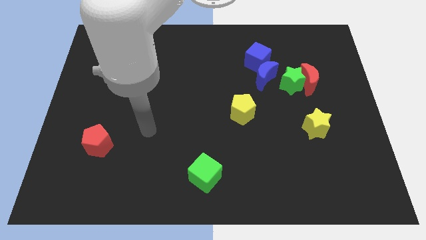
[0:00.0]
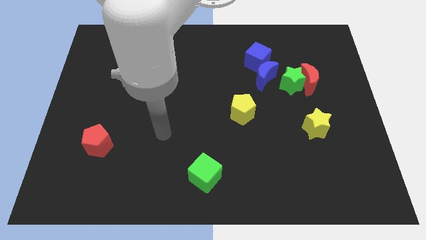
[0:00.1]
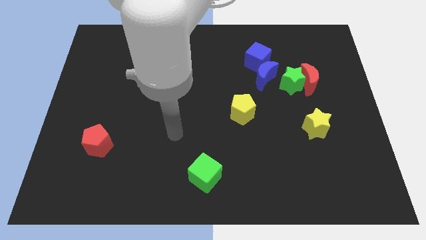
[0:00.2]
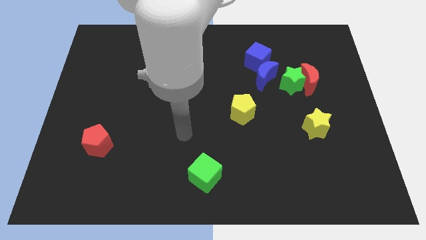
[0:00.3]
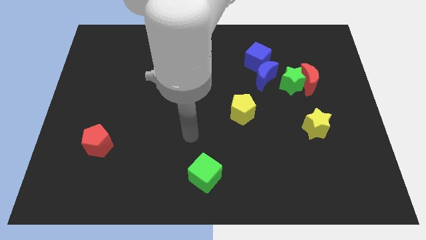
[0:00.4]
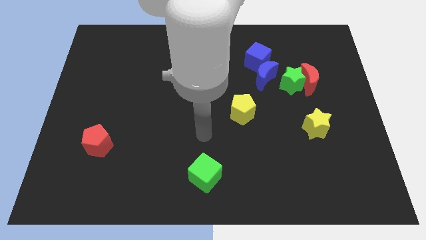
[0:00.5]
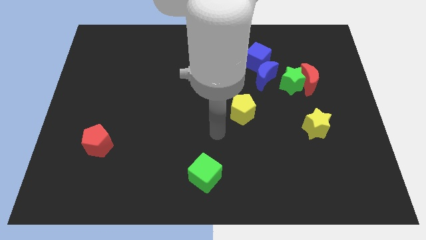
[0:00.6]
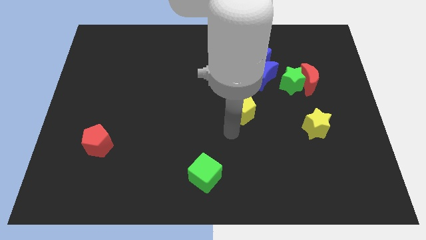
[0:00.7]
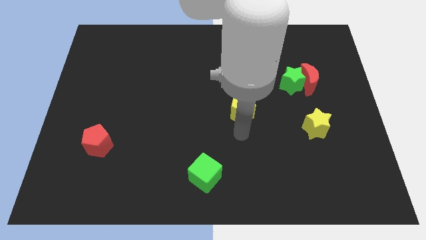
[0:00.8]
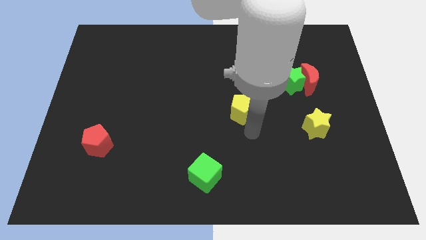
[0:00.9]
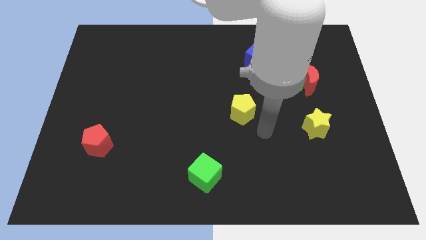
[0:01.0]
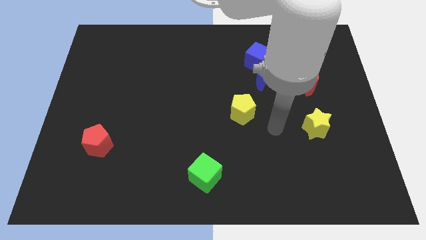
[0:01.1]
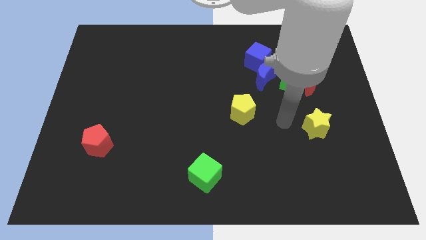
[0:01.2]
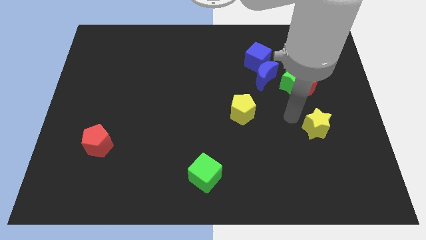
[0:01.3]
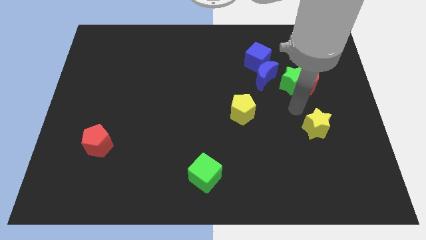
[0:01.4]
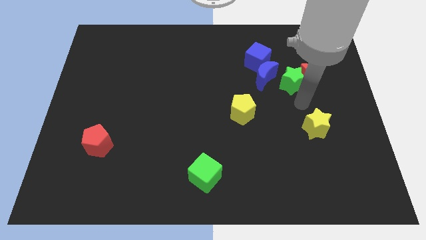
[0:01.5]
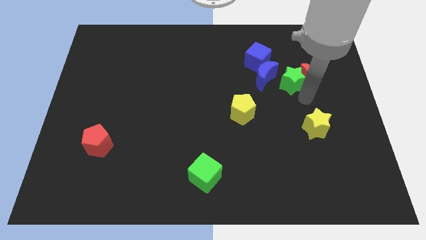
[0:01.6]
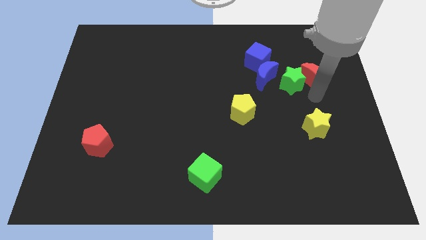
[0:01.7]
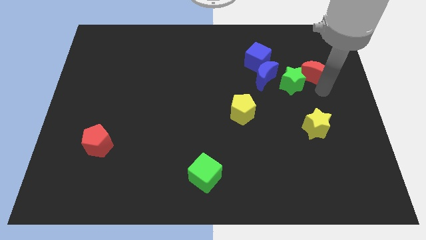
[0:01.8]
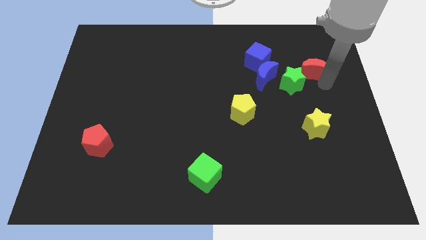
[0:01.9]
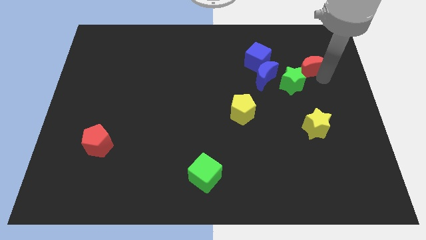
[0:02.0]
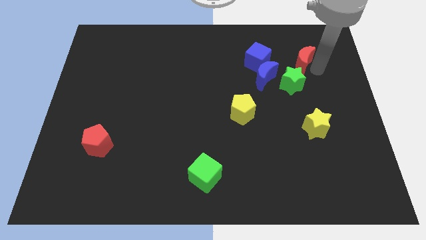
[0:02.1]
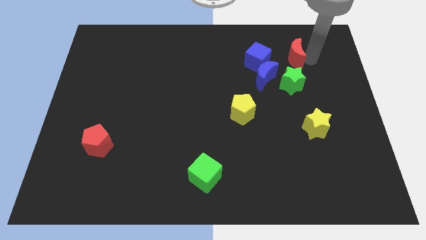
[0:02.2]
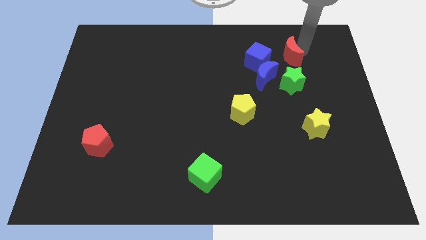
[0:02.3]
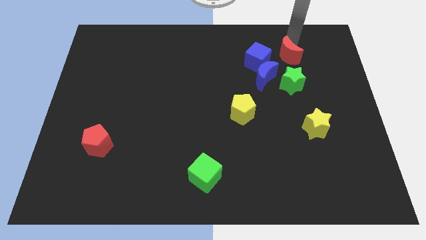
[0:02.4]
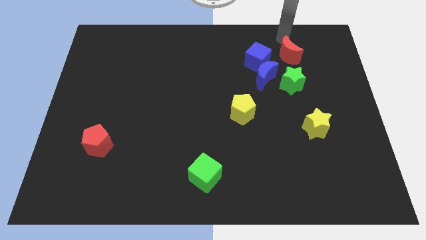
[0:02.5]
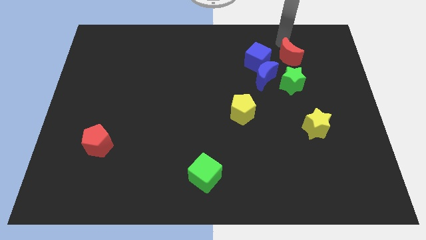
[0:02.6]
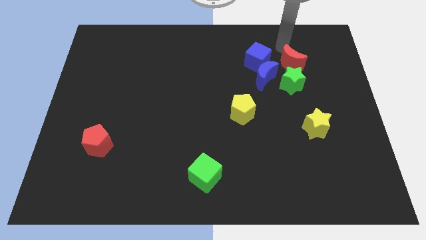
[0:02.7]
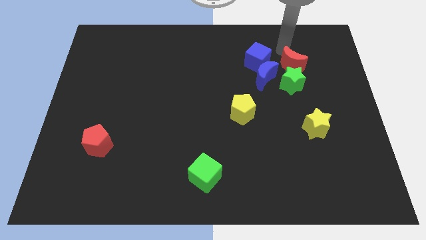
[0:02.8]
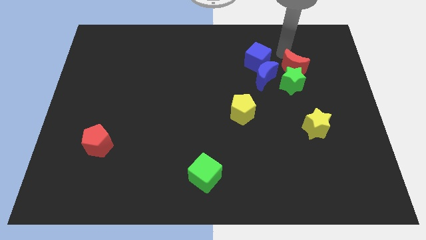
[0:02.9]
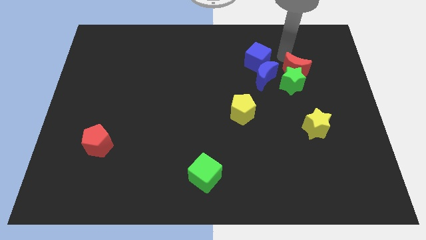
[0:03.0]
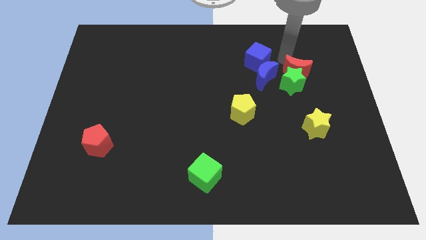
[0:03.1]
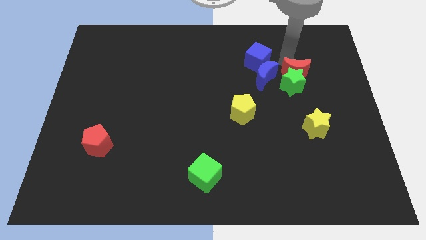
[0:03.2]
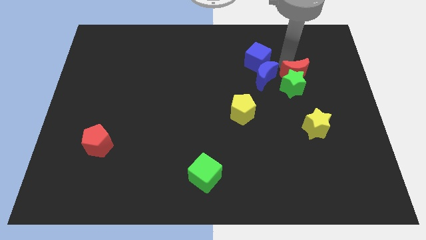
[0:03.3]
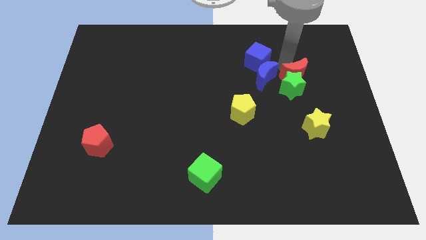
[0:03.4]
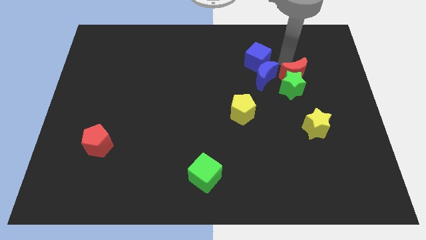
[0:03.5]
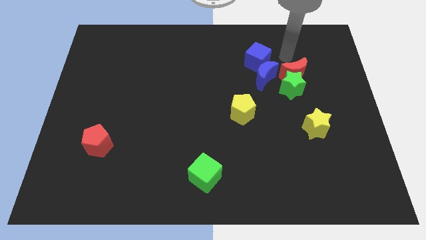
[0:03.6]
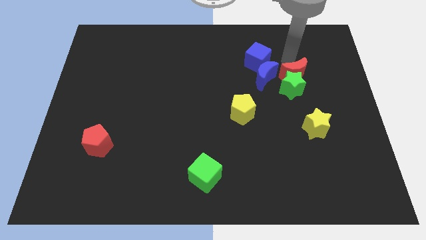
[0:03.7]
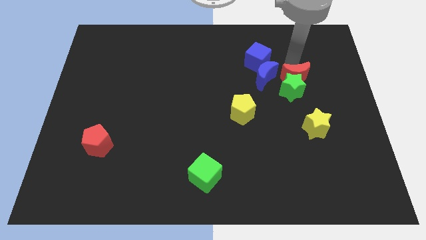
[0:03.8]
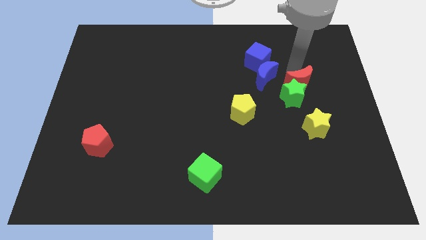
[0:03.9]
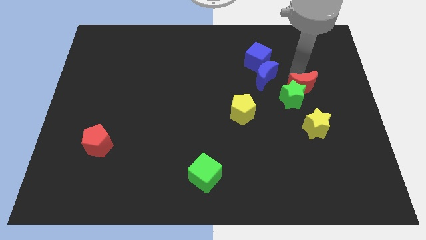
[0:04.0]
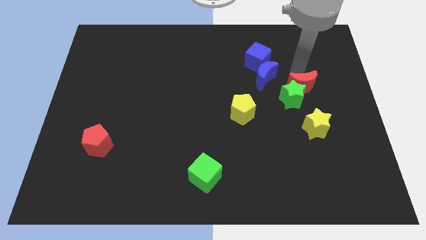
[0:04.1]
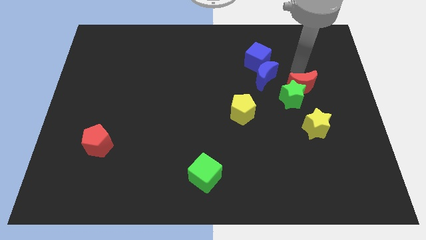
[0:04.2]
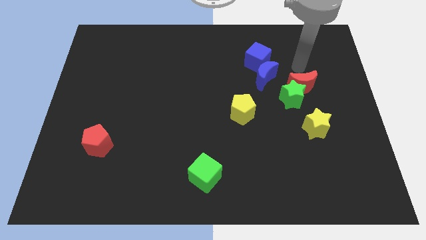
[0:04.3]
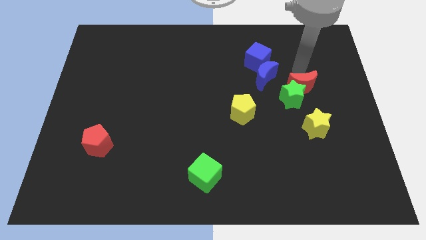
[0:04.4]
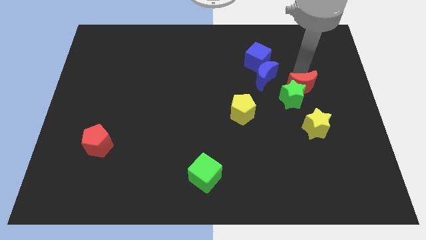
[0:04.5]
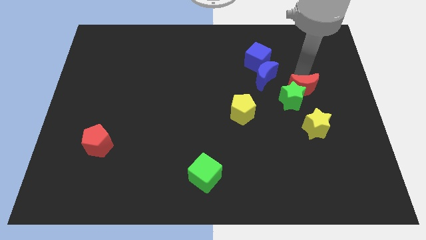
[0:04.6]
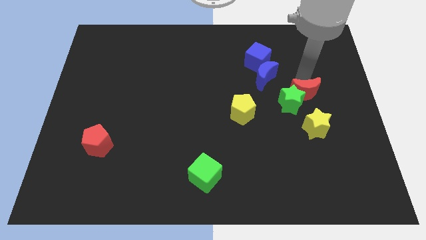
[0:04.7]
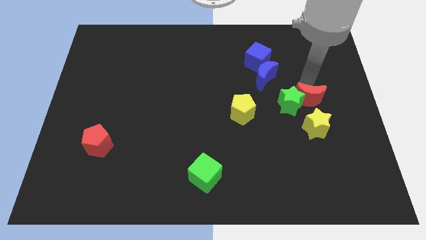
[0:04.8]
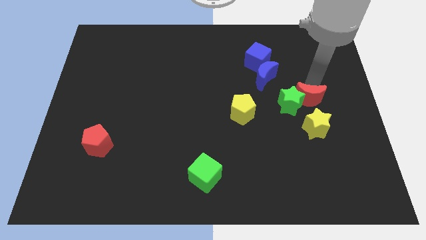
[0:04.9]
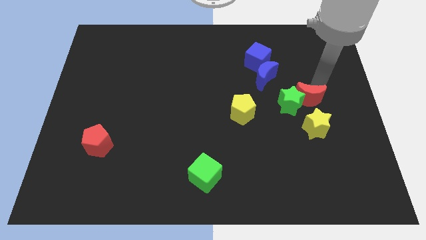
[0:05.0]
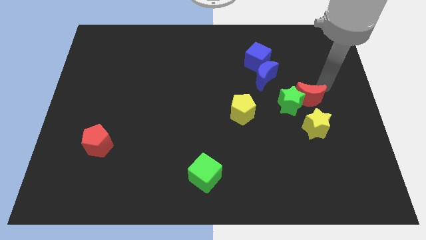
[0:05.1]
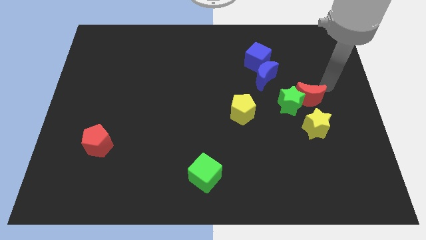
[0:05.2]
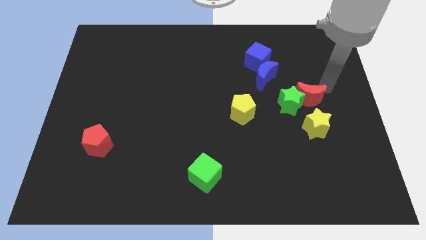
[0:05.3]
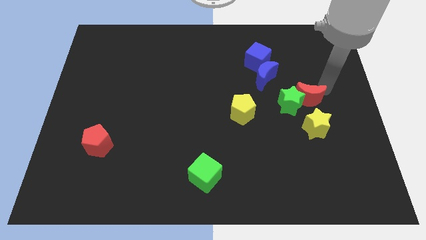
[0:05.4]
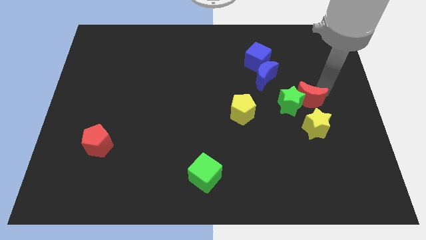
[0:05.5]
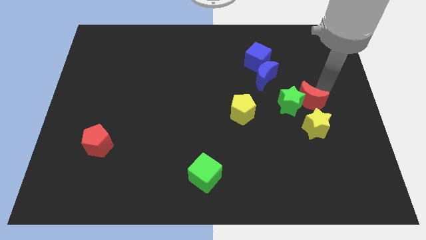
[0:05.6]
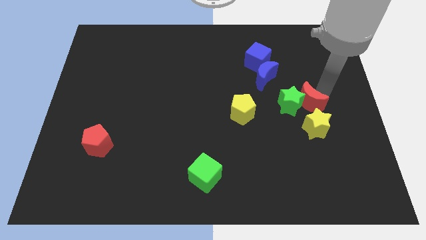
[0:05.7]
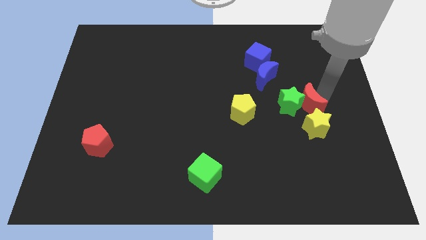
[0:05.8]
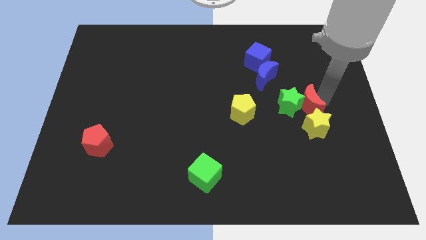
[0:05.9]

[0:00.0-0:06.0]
move the red moon just right of the yellow pentagon
